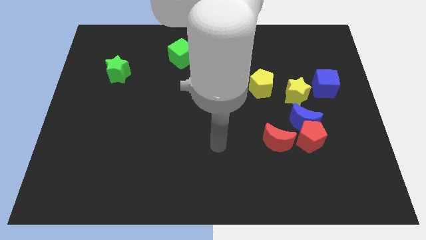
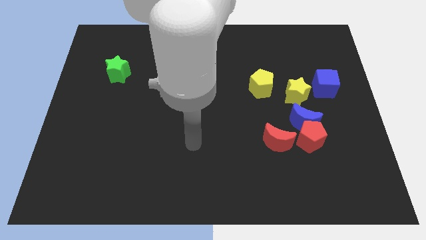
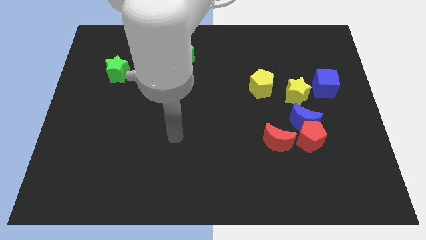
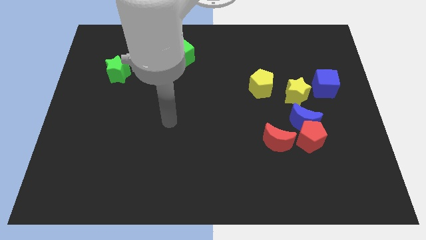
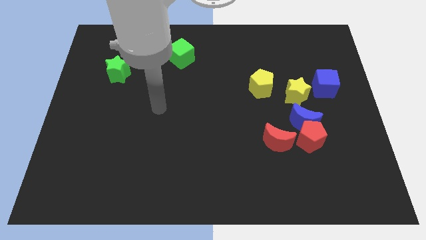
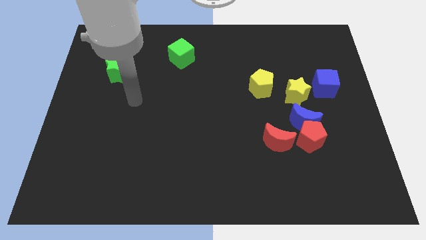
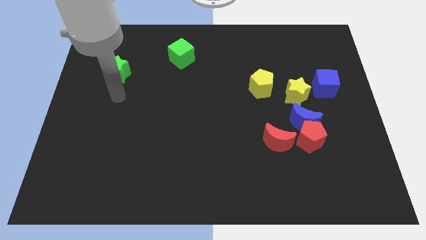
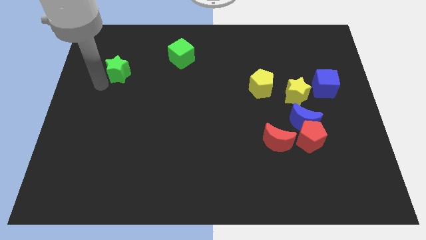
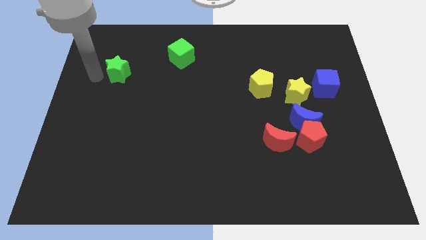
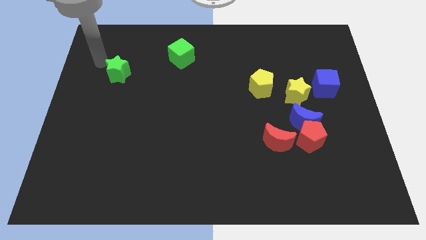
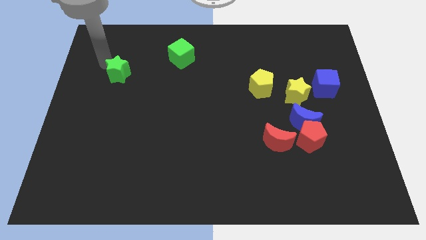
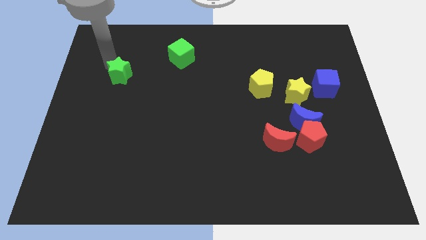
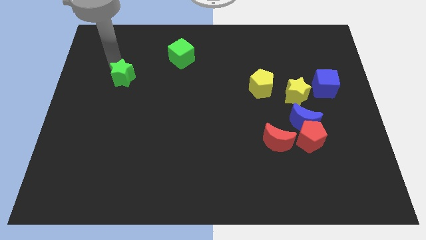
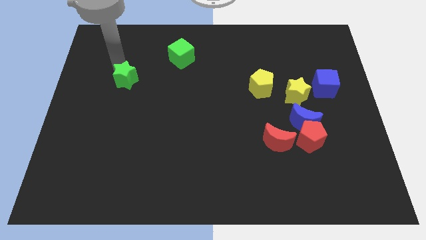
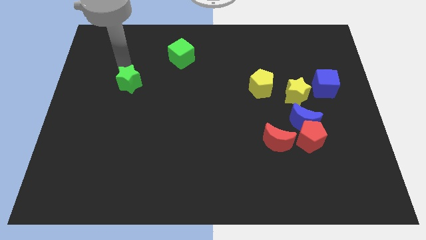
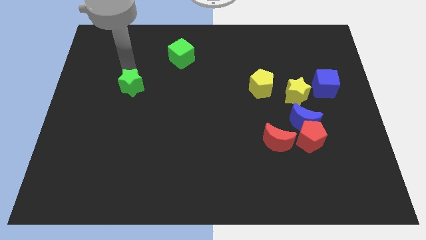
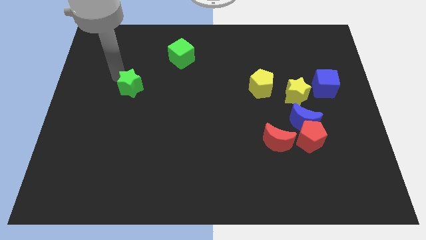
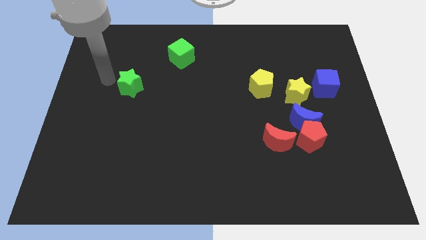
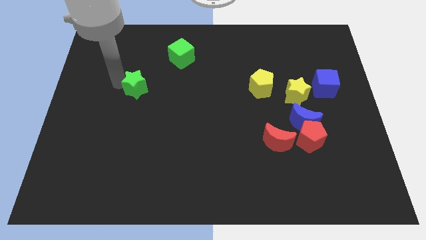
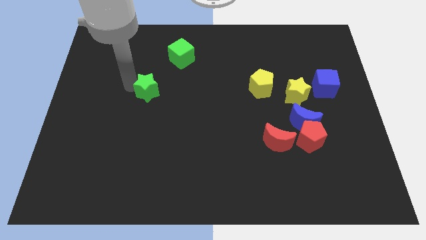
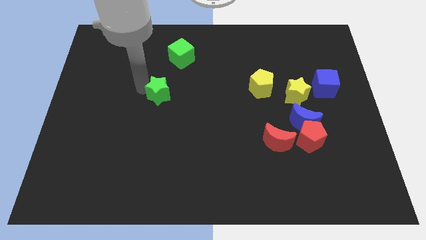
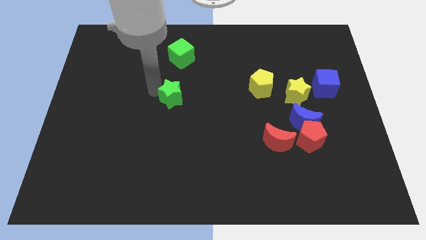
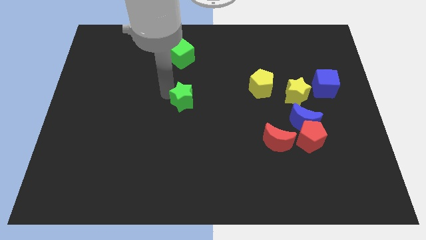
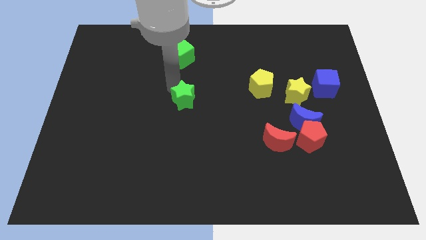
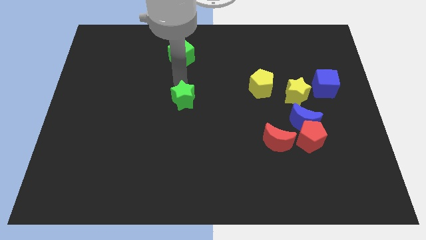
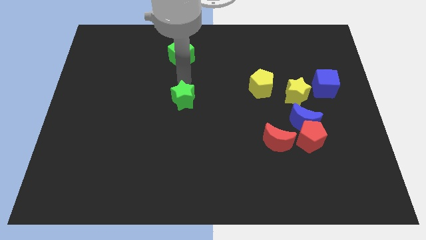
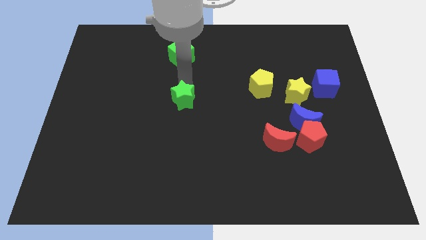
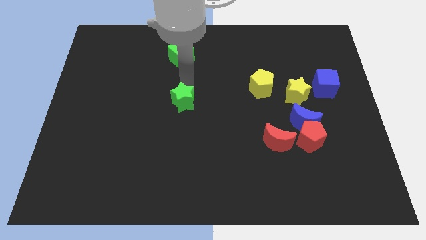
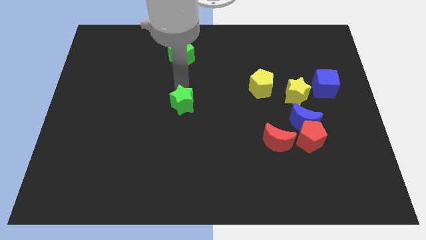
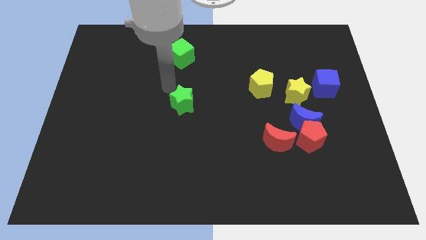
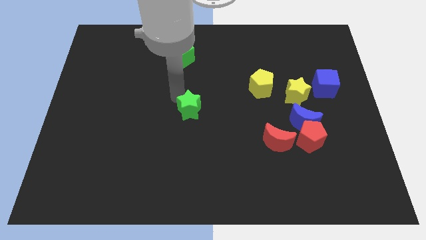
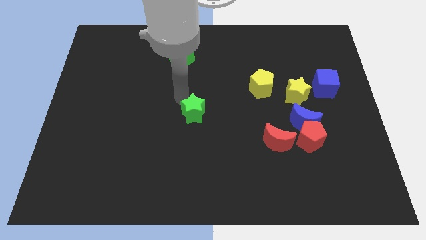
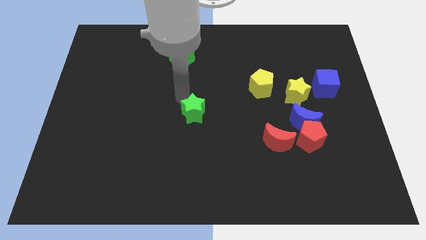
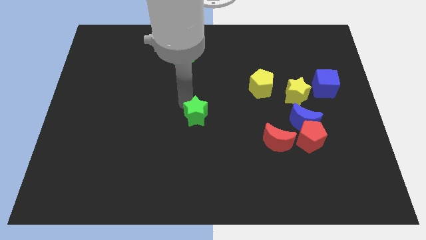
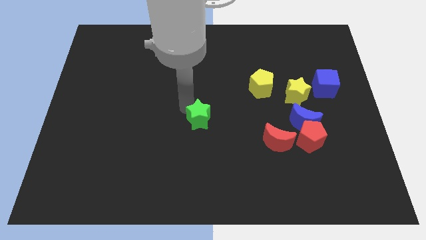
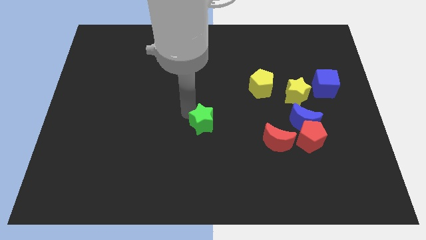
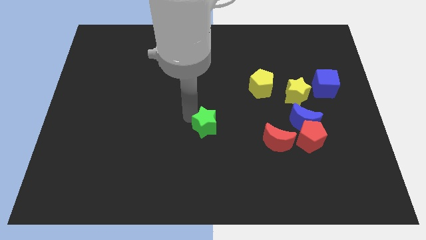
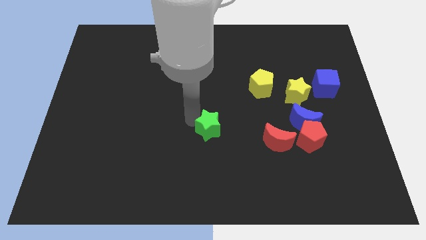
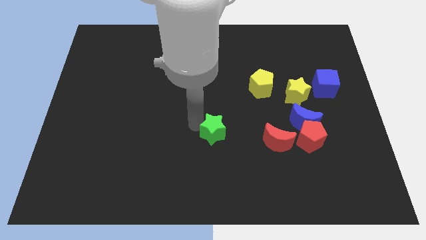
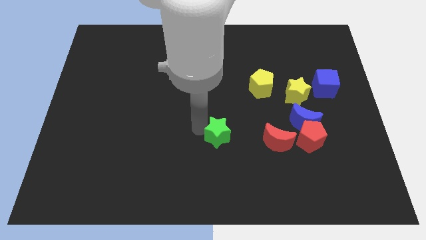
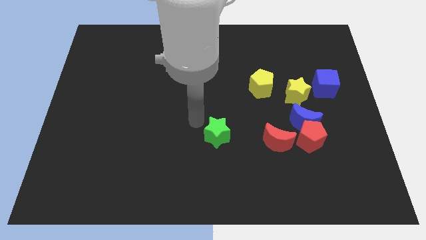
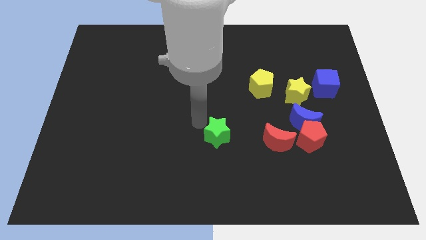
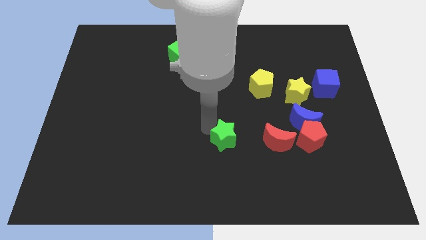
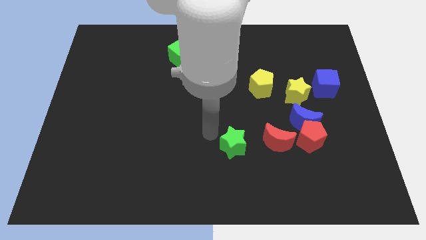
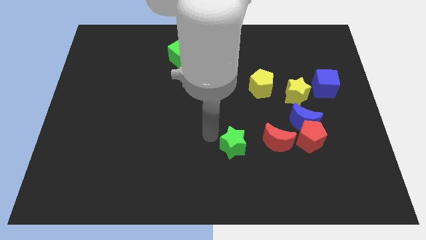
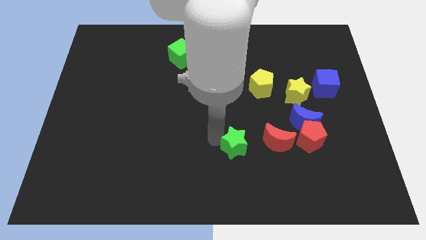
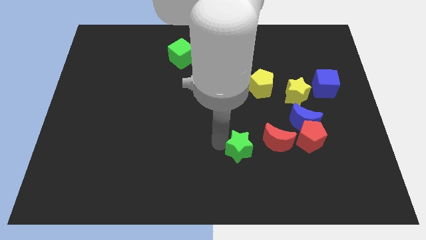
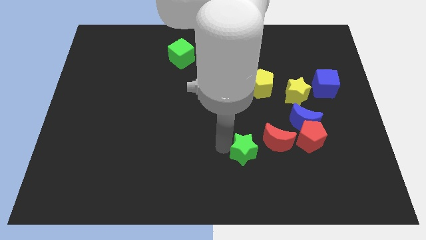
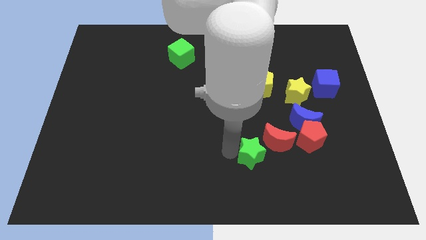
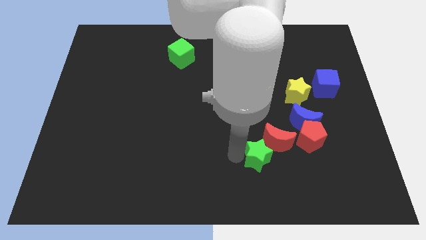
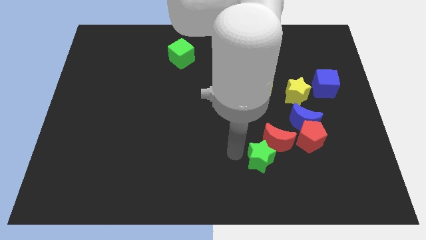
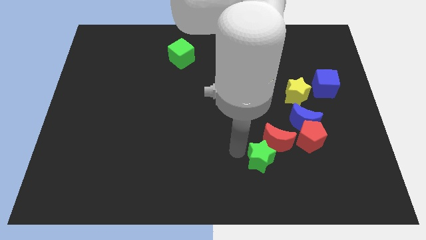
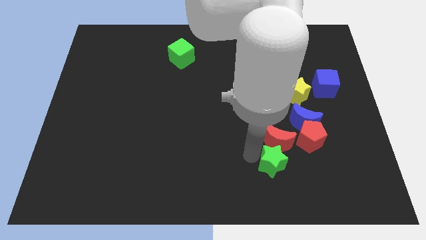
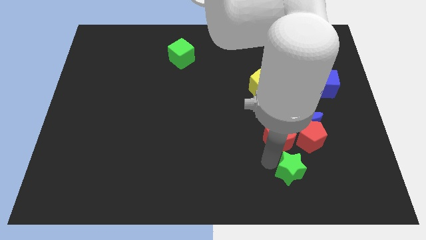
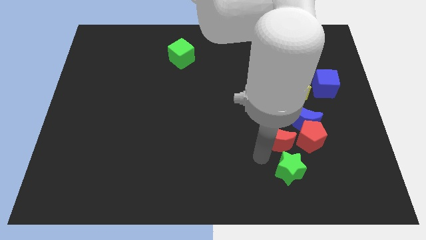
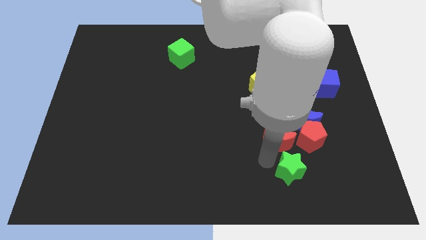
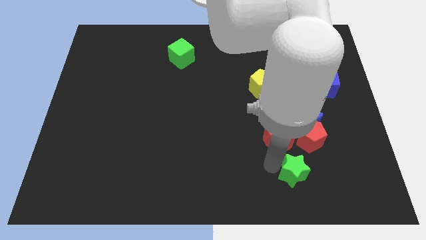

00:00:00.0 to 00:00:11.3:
slide the green star below the red pentagon

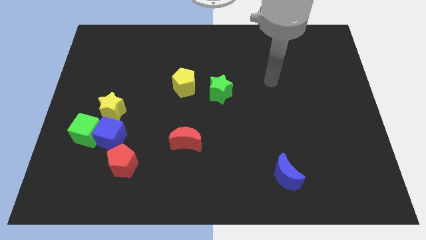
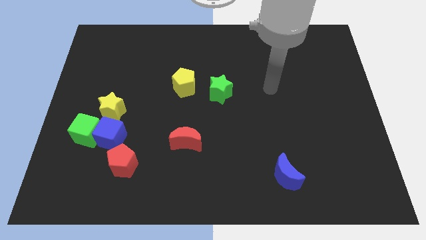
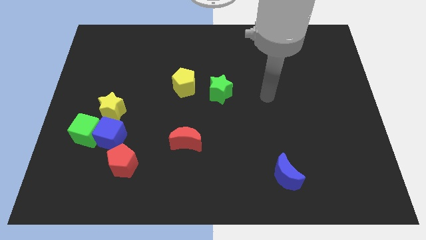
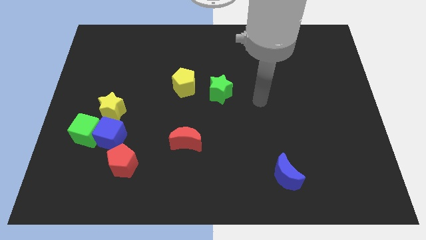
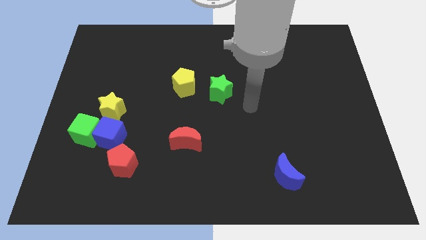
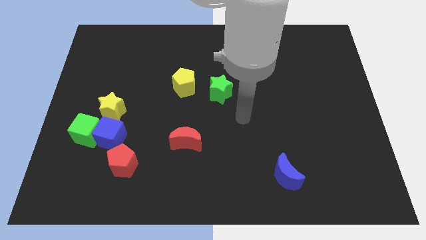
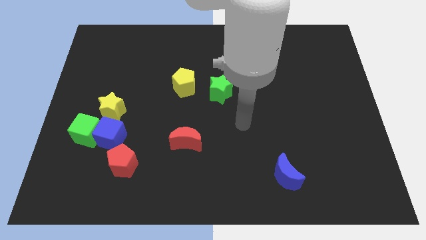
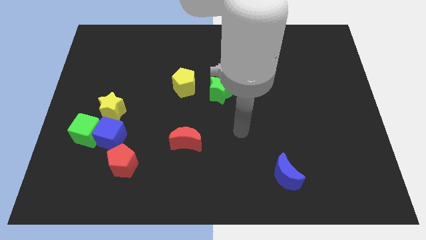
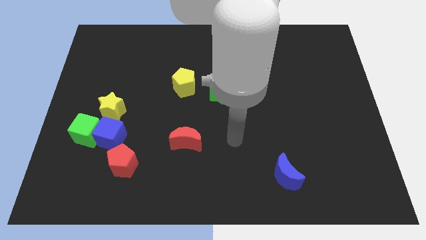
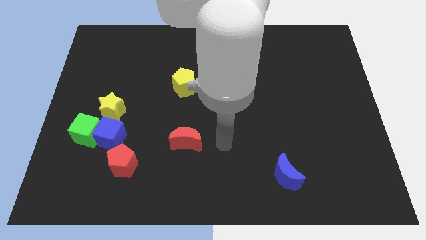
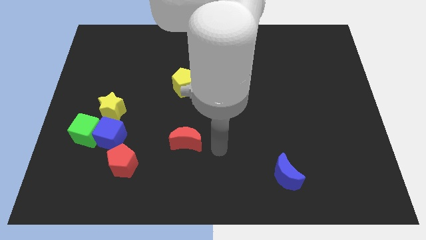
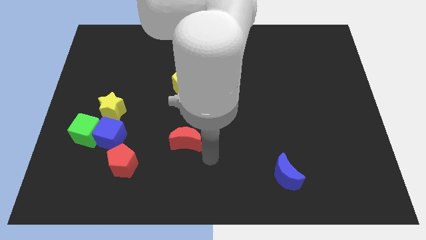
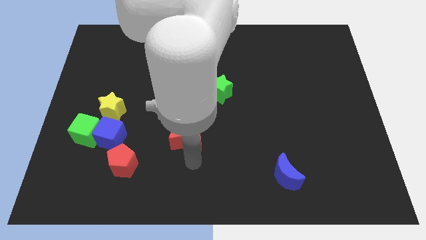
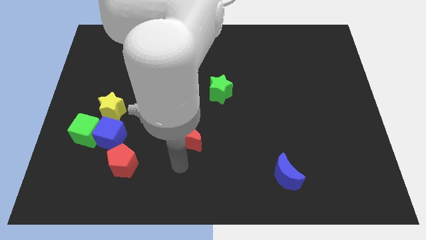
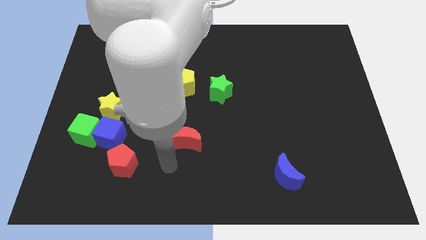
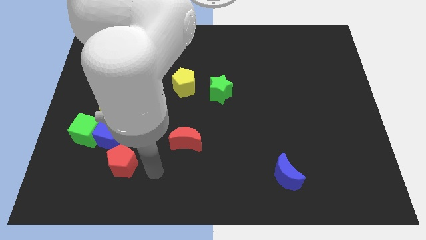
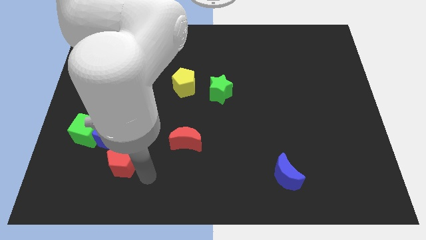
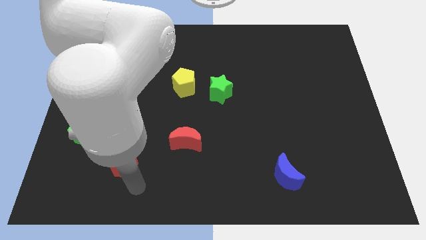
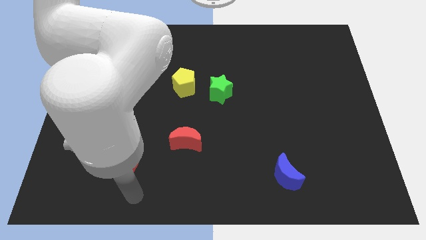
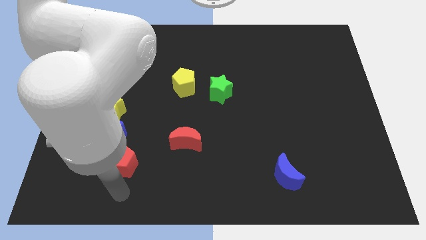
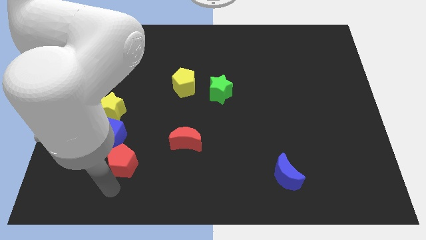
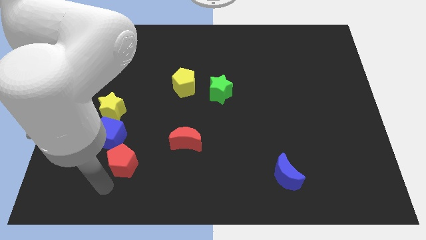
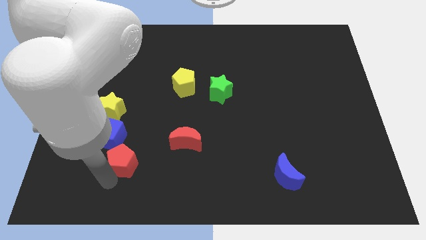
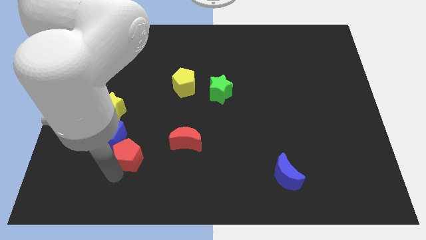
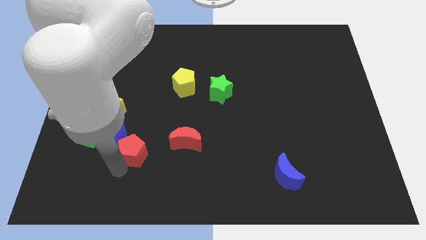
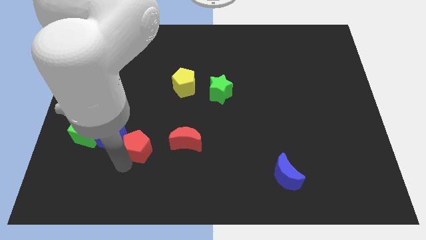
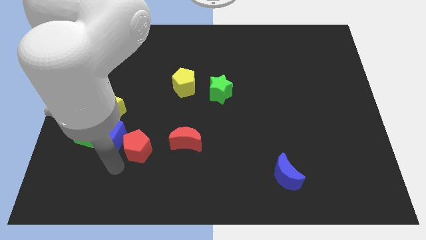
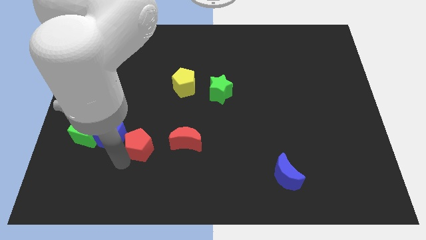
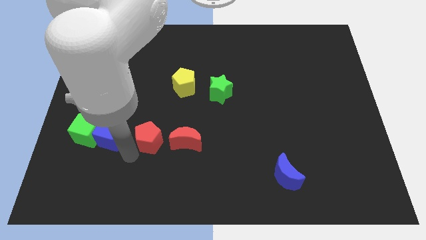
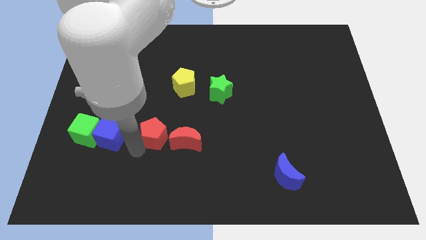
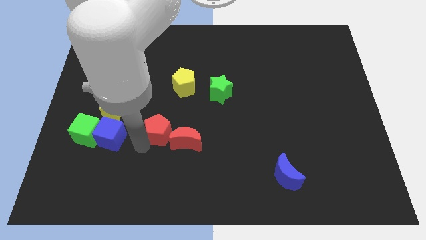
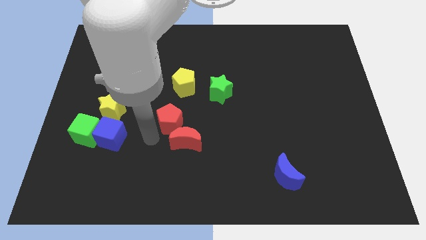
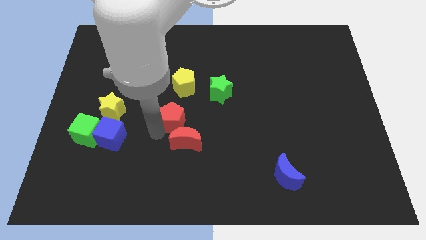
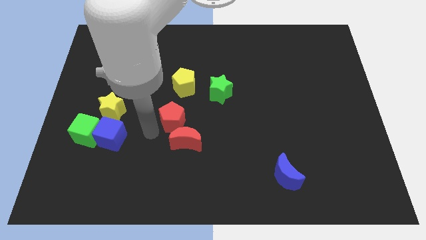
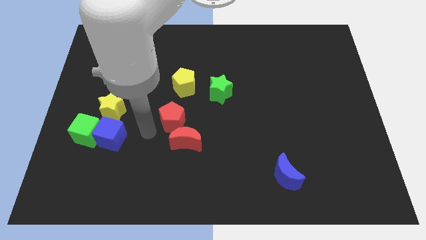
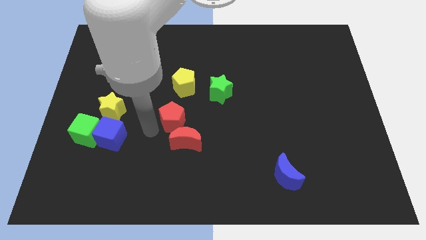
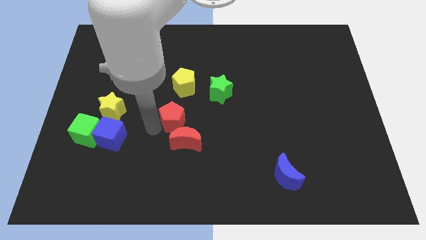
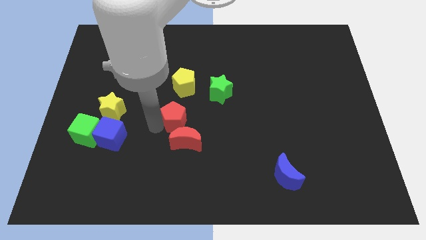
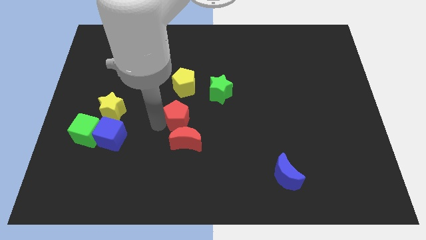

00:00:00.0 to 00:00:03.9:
move the red pentagon to the bottom left of the green star
